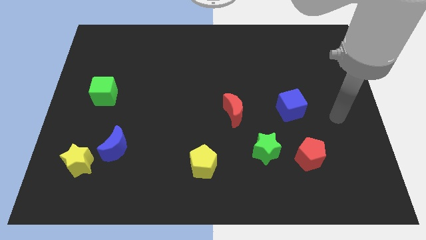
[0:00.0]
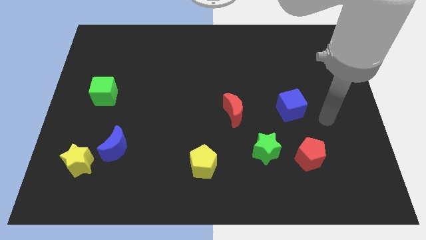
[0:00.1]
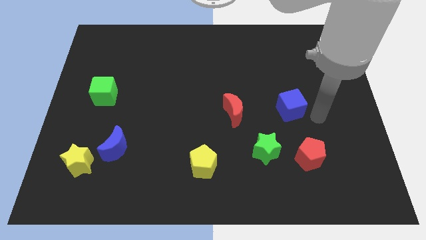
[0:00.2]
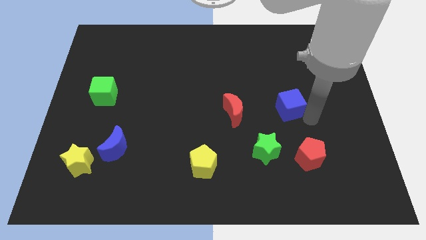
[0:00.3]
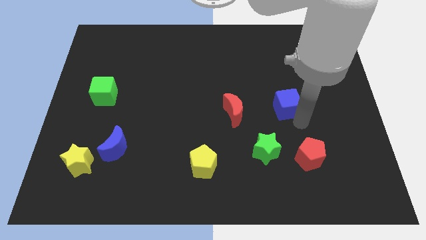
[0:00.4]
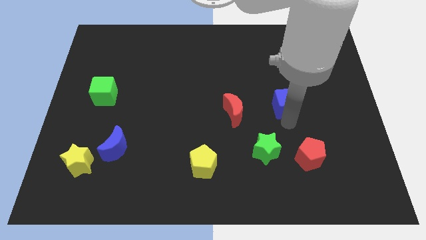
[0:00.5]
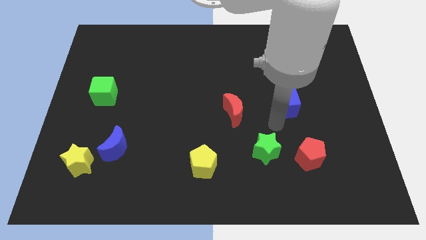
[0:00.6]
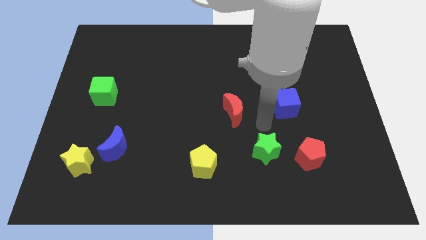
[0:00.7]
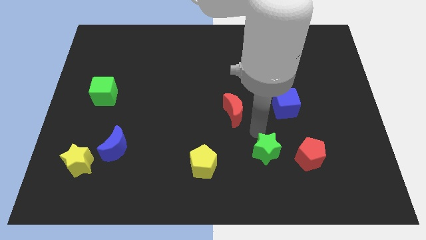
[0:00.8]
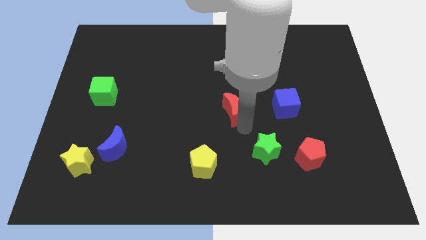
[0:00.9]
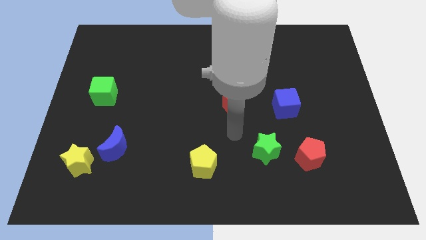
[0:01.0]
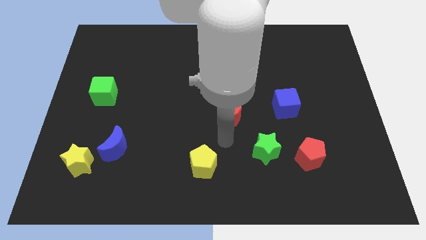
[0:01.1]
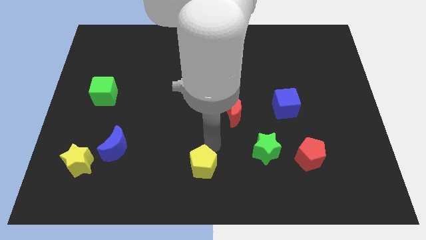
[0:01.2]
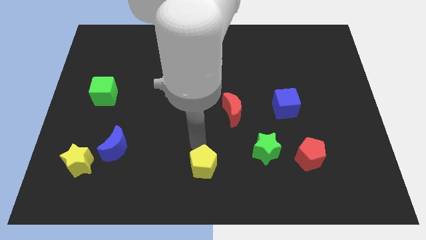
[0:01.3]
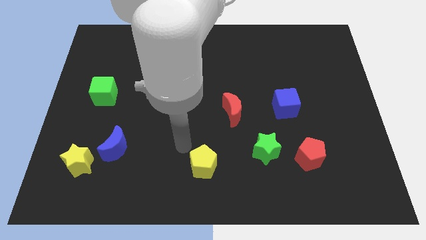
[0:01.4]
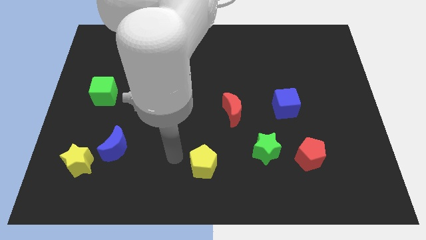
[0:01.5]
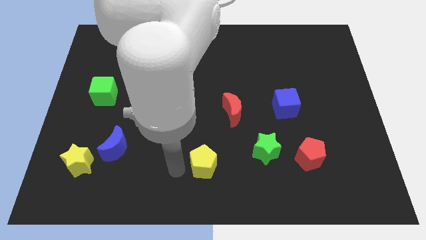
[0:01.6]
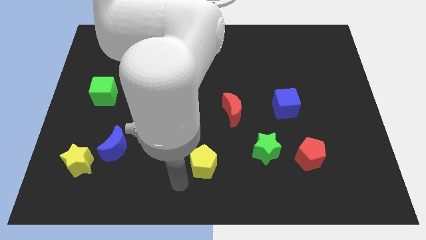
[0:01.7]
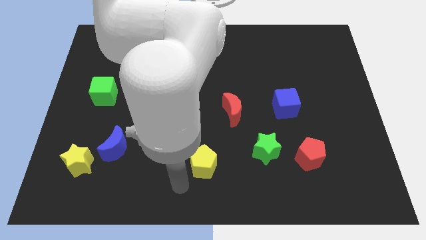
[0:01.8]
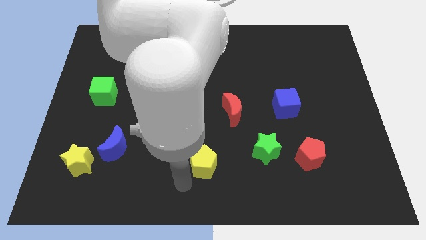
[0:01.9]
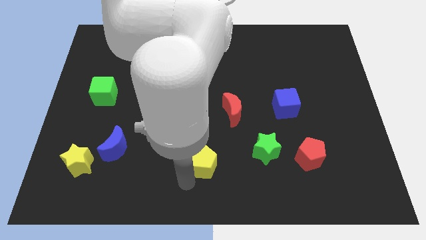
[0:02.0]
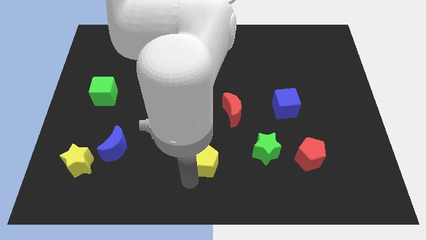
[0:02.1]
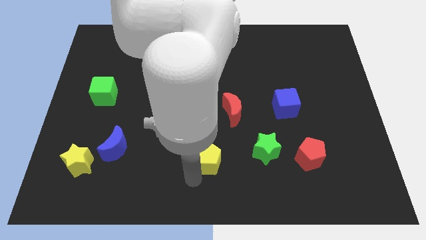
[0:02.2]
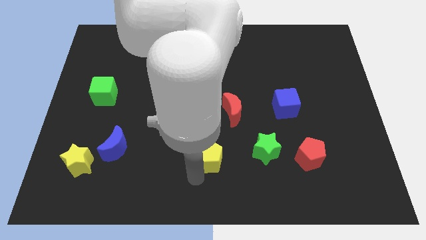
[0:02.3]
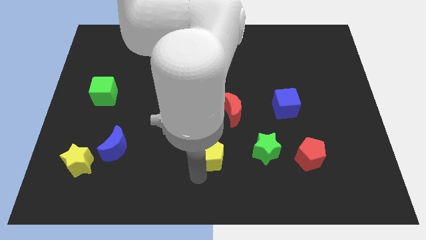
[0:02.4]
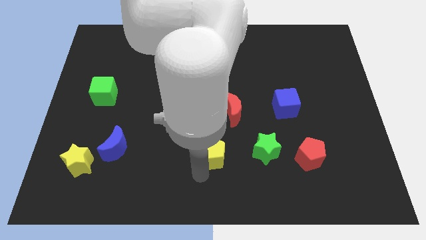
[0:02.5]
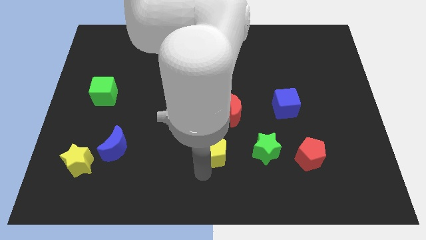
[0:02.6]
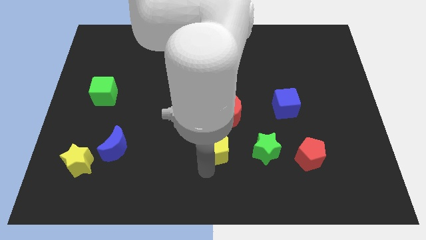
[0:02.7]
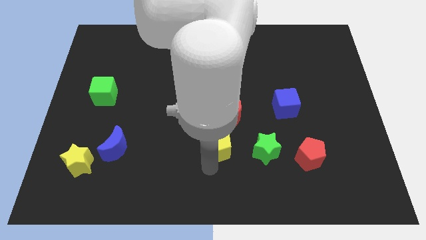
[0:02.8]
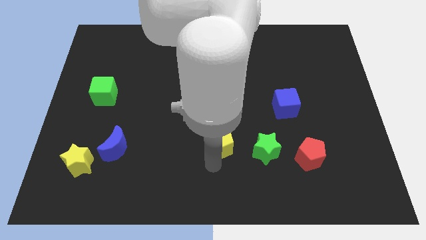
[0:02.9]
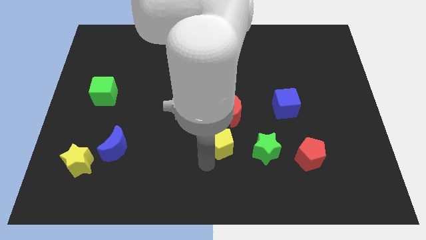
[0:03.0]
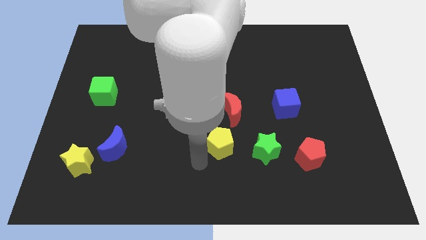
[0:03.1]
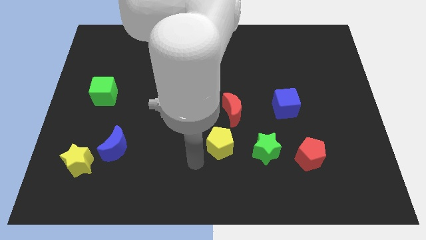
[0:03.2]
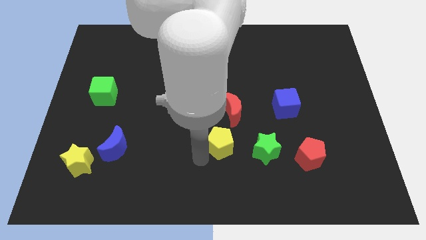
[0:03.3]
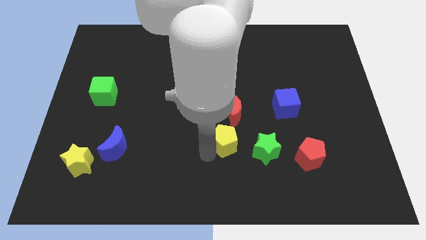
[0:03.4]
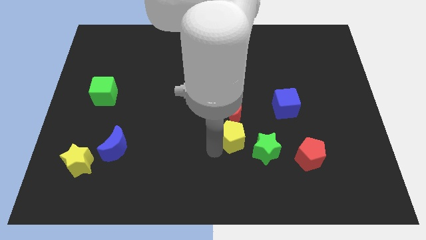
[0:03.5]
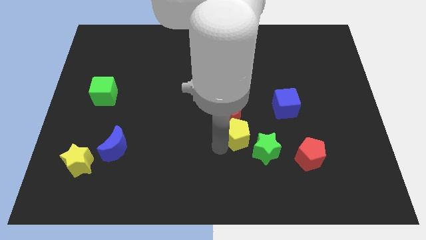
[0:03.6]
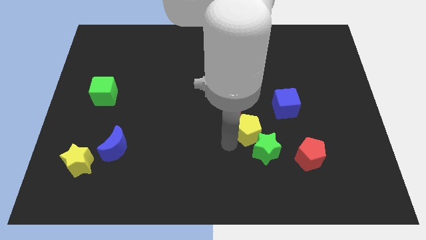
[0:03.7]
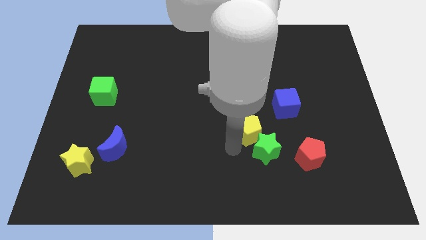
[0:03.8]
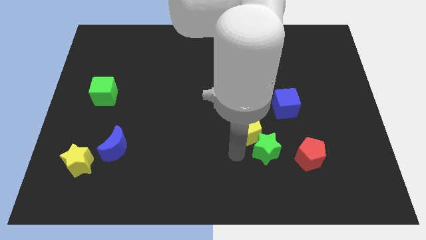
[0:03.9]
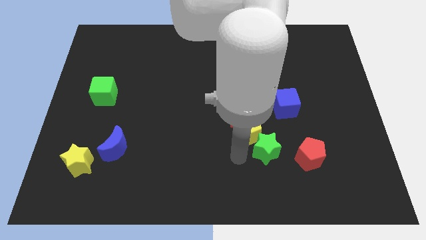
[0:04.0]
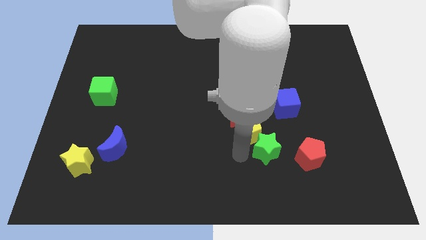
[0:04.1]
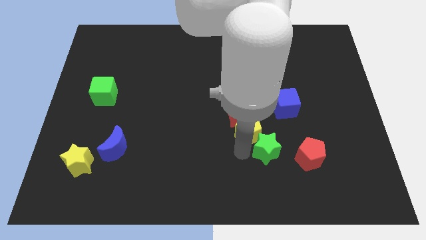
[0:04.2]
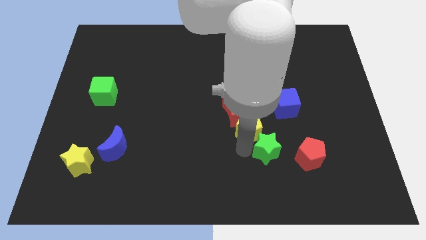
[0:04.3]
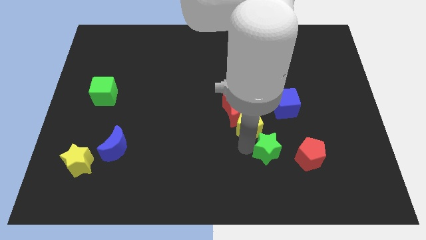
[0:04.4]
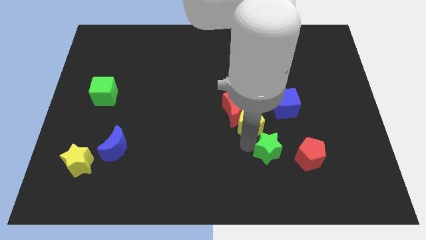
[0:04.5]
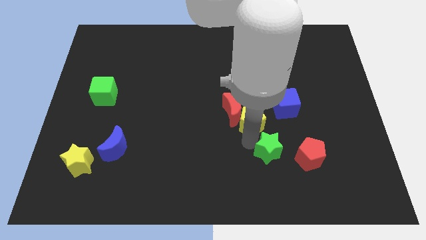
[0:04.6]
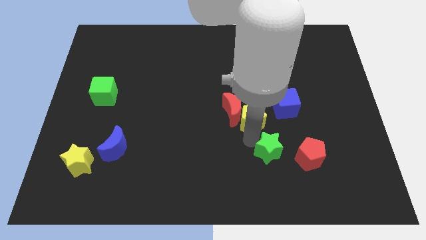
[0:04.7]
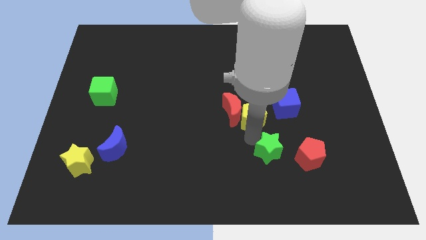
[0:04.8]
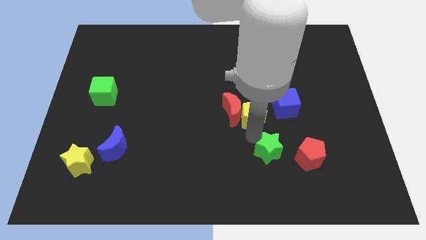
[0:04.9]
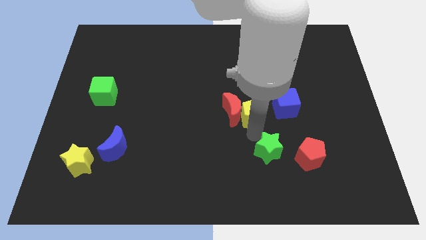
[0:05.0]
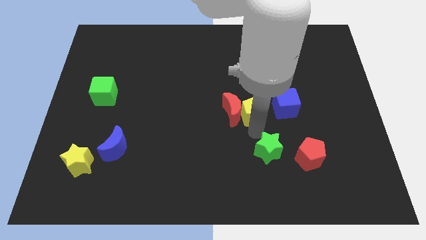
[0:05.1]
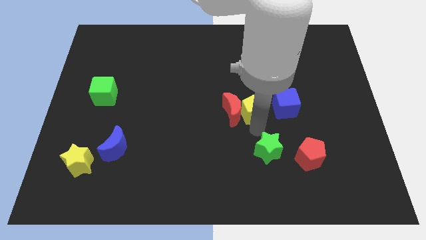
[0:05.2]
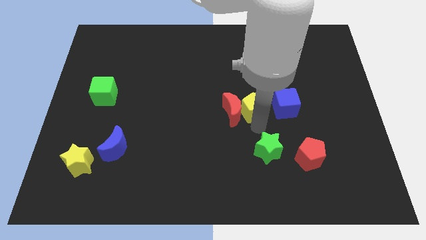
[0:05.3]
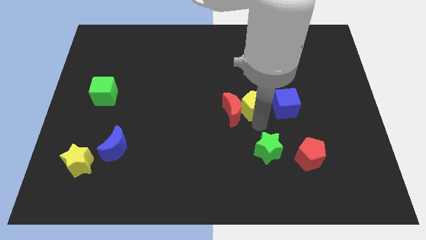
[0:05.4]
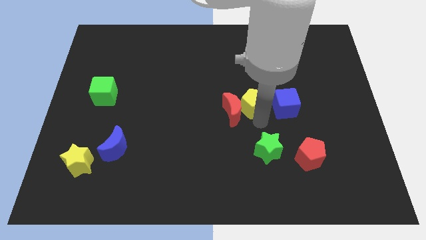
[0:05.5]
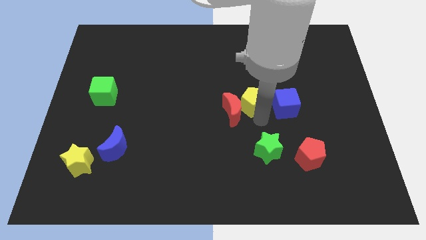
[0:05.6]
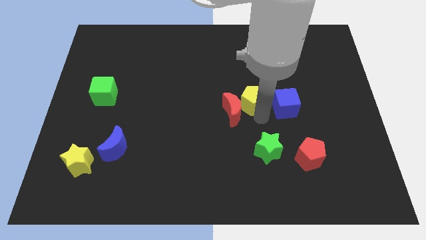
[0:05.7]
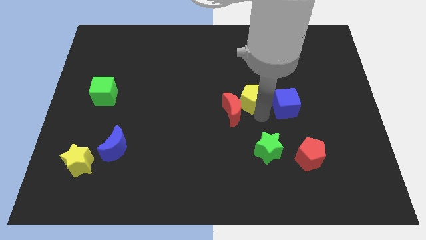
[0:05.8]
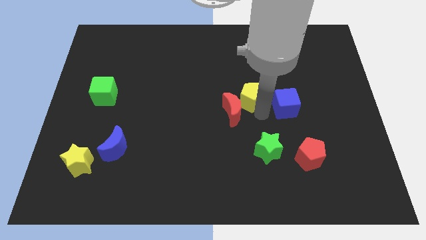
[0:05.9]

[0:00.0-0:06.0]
move the yellow pentagon to the top side of the red moon

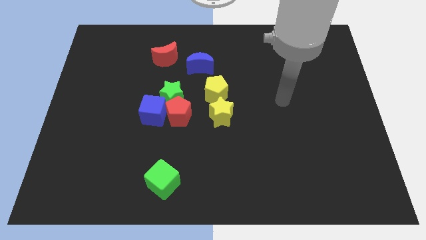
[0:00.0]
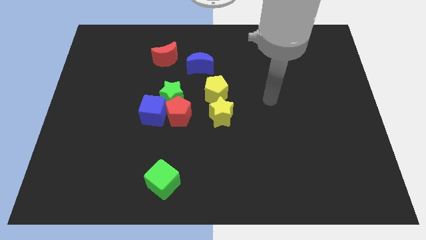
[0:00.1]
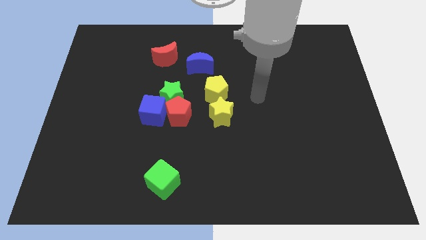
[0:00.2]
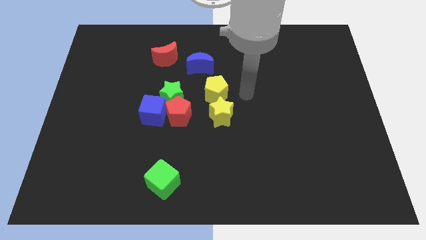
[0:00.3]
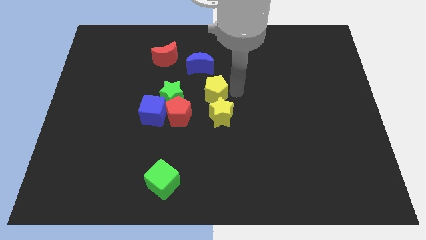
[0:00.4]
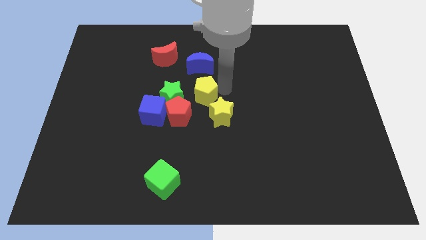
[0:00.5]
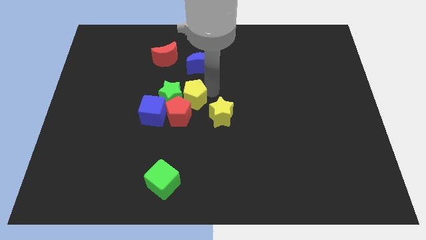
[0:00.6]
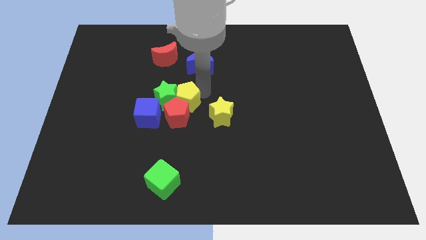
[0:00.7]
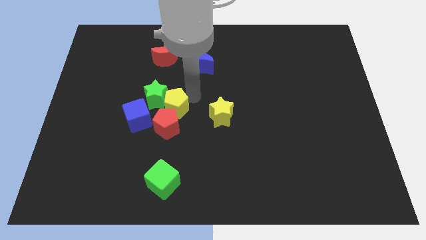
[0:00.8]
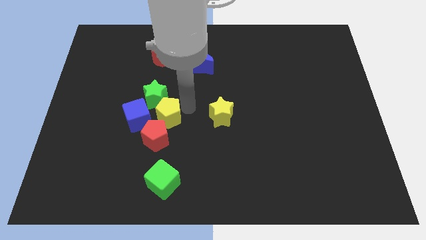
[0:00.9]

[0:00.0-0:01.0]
push the red pentagon below the blue cube

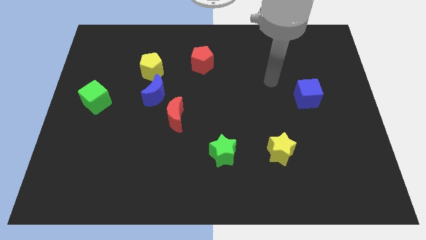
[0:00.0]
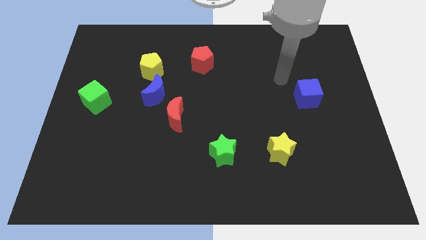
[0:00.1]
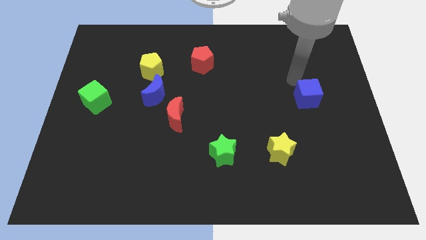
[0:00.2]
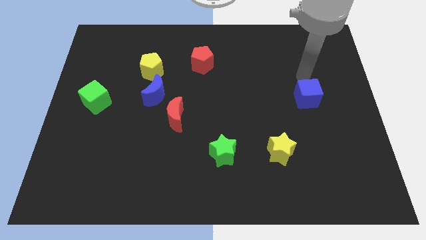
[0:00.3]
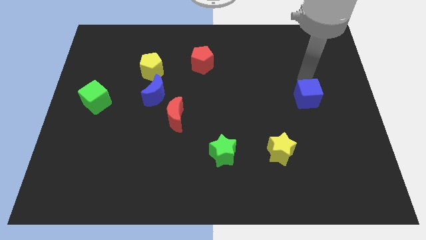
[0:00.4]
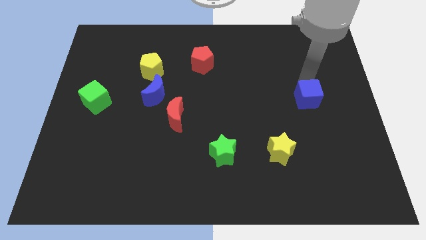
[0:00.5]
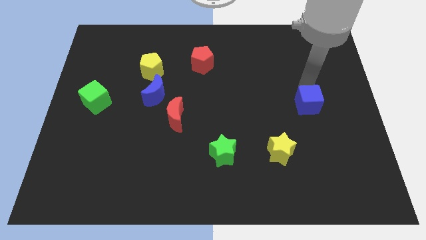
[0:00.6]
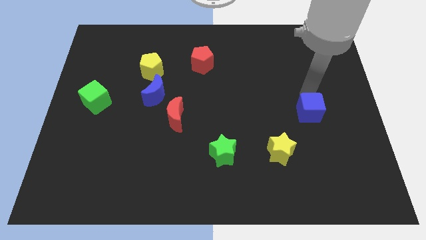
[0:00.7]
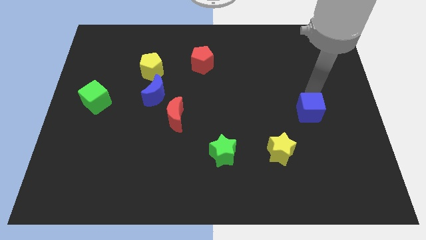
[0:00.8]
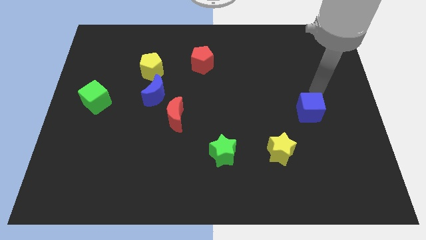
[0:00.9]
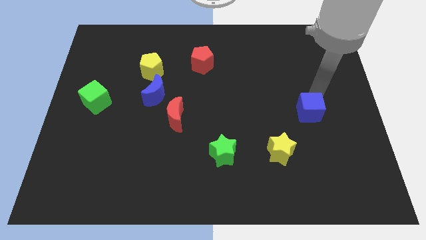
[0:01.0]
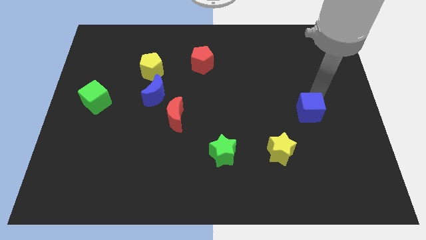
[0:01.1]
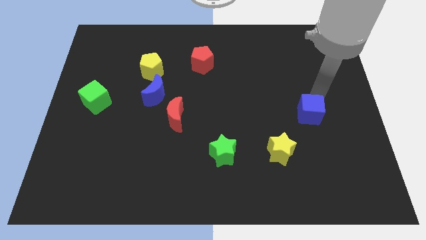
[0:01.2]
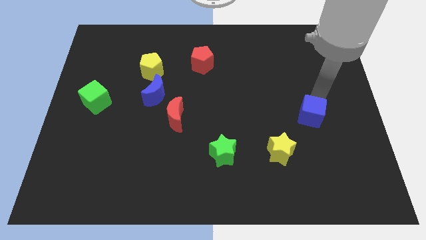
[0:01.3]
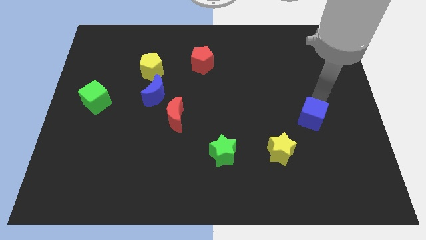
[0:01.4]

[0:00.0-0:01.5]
slide the blue cube to the top right side of the yellow star
